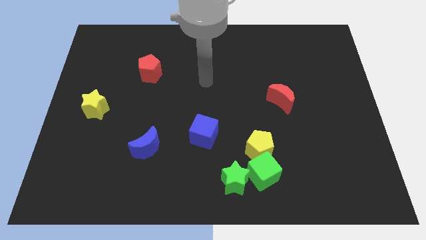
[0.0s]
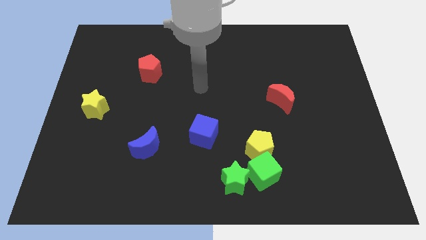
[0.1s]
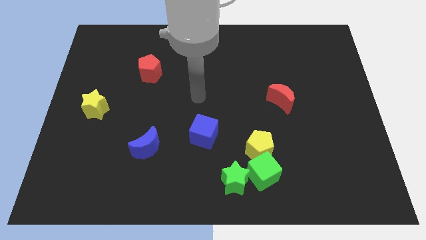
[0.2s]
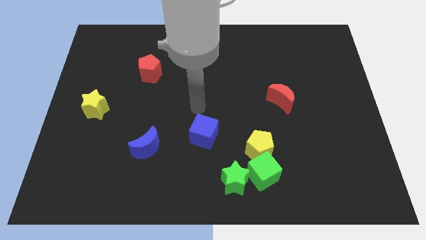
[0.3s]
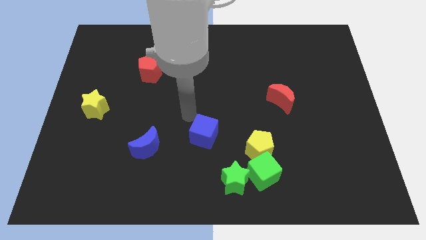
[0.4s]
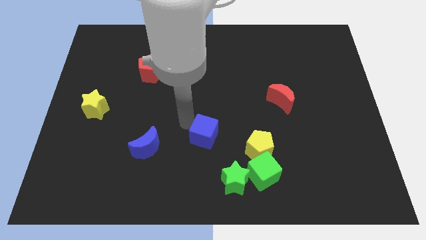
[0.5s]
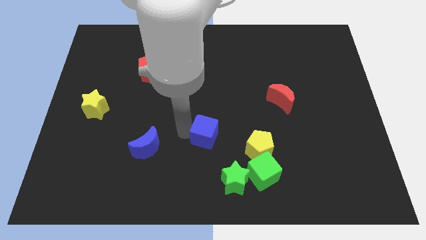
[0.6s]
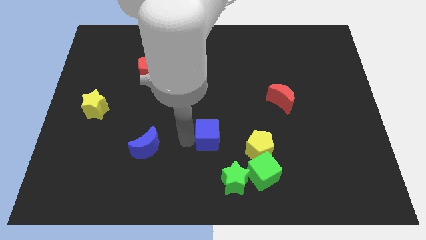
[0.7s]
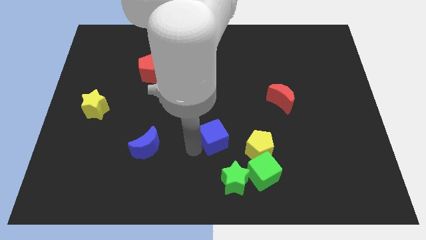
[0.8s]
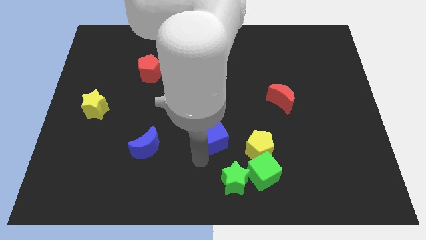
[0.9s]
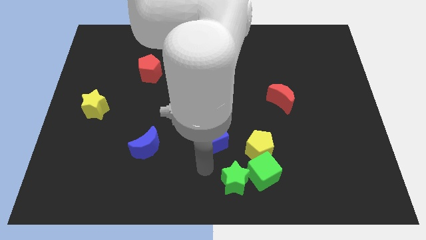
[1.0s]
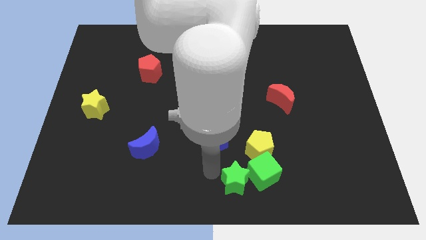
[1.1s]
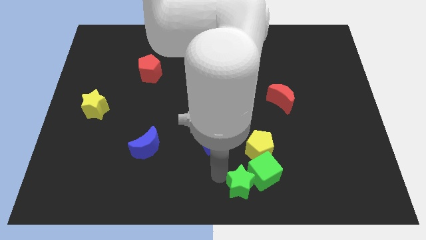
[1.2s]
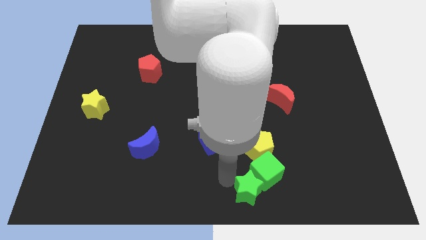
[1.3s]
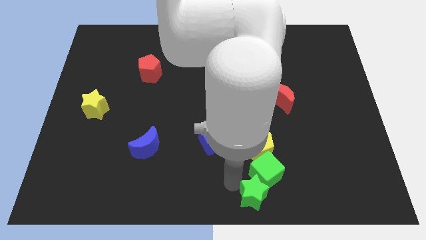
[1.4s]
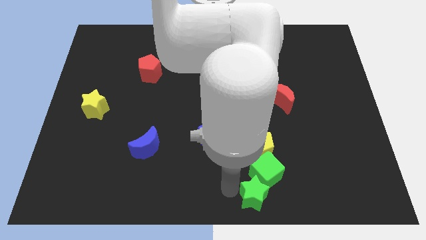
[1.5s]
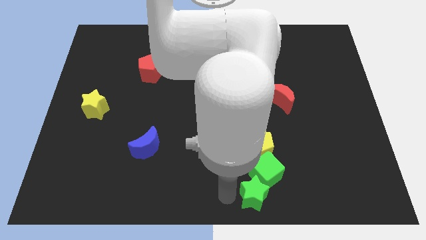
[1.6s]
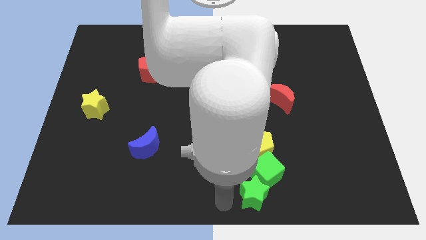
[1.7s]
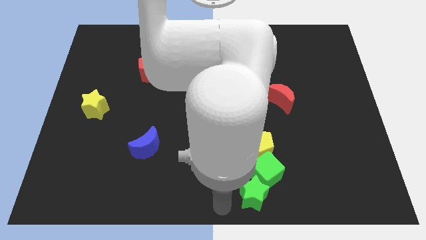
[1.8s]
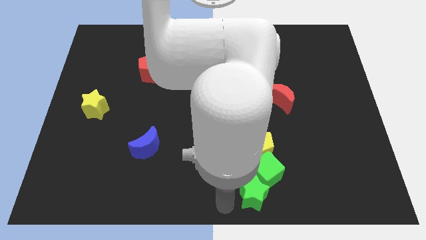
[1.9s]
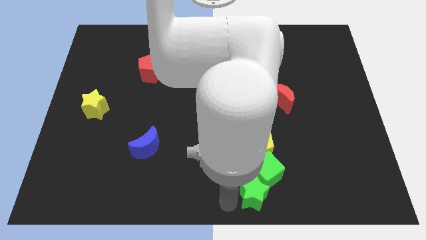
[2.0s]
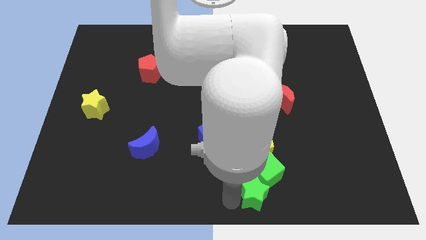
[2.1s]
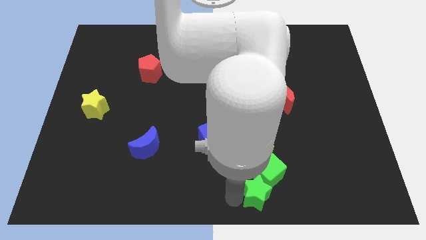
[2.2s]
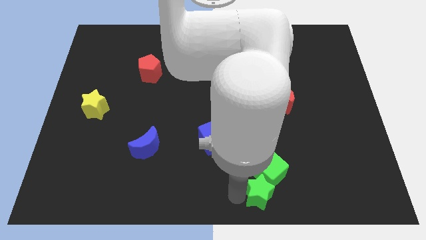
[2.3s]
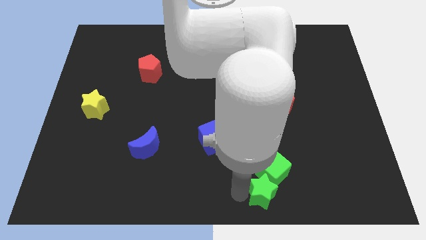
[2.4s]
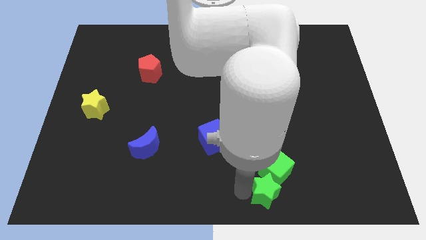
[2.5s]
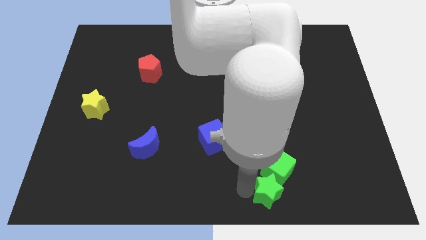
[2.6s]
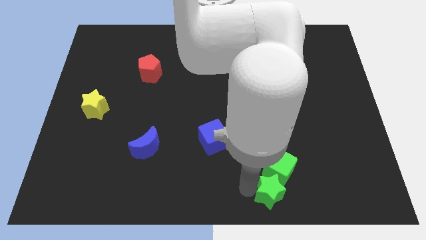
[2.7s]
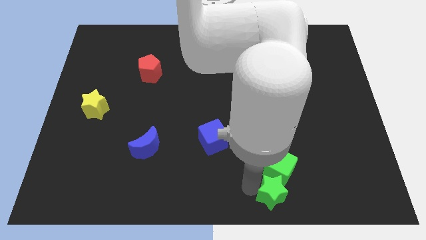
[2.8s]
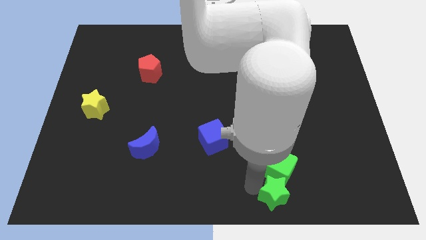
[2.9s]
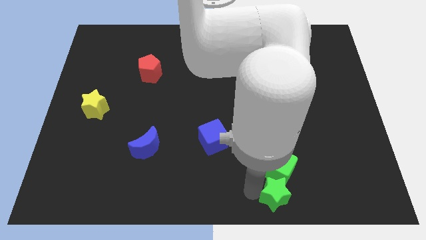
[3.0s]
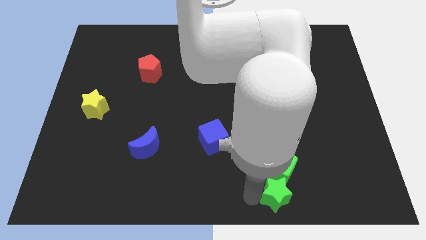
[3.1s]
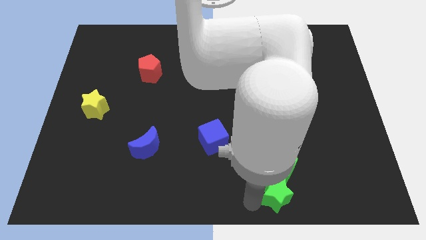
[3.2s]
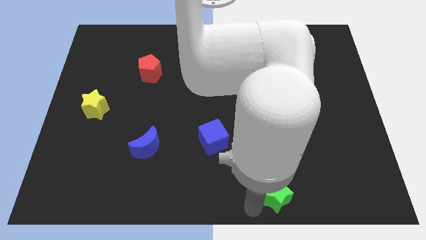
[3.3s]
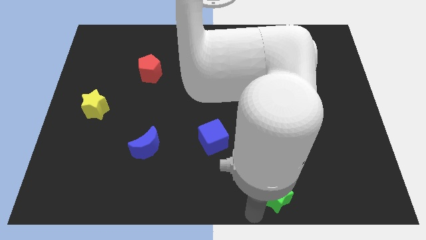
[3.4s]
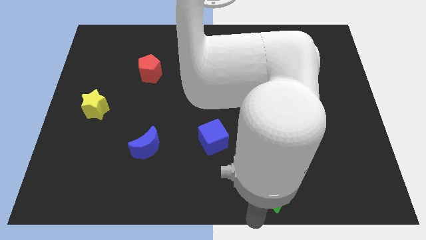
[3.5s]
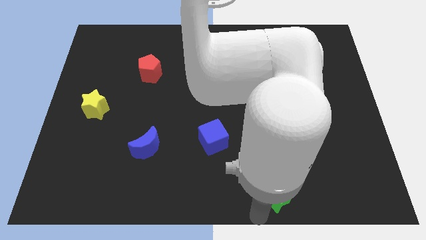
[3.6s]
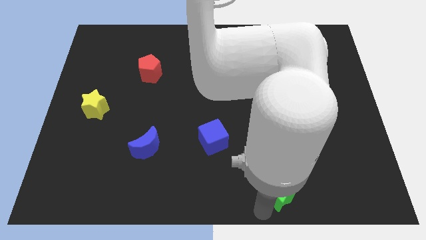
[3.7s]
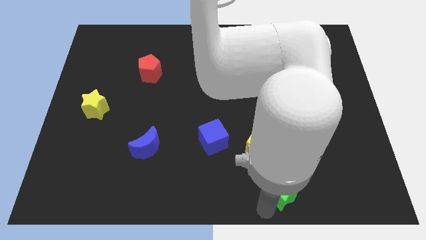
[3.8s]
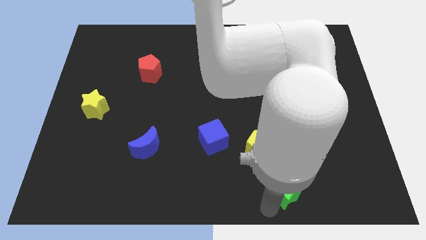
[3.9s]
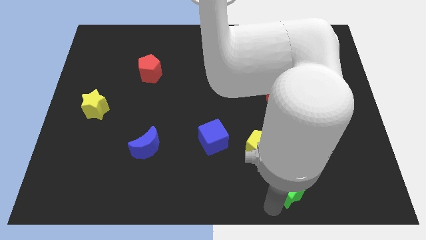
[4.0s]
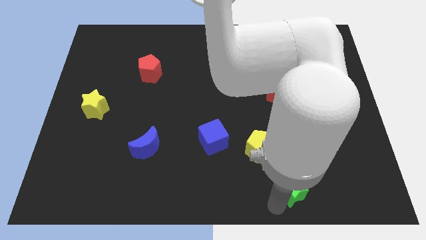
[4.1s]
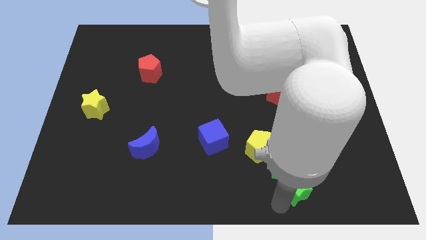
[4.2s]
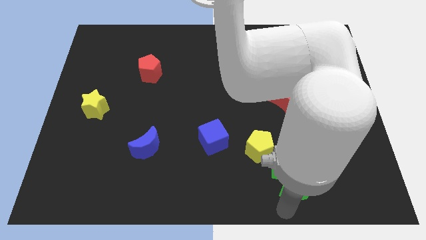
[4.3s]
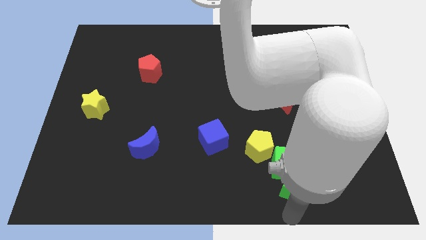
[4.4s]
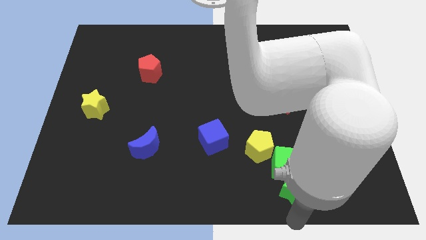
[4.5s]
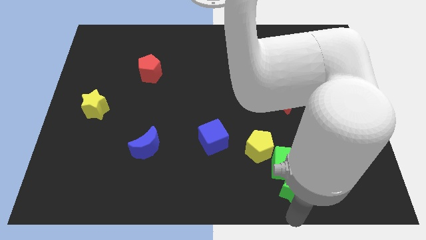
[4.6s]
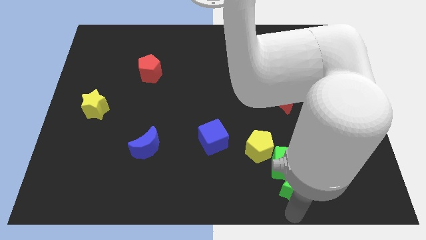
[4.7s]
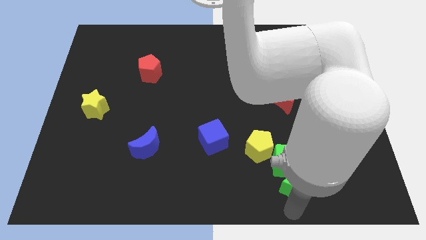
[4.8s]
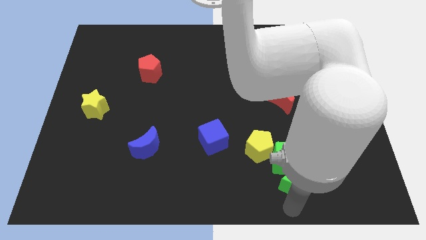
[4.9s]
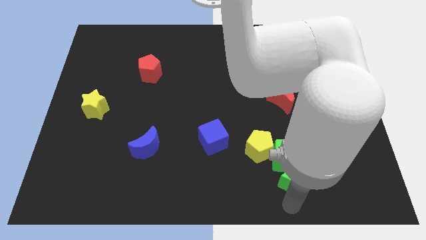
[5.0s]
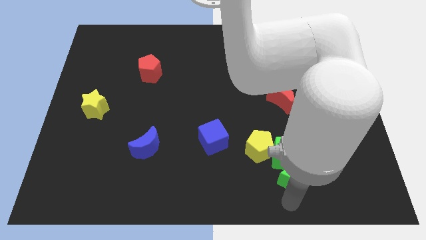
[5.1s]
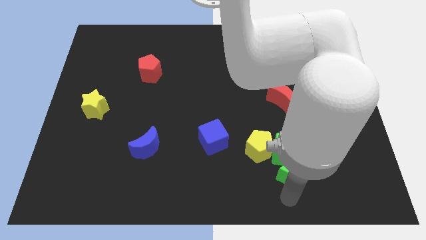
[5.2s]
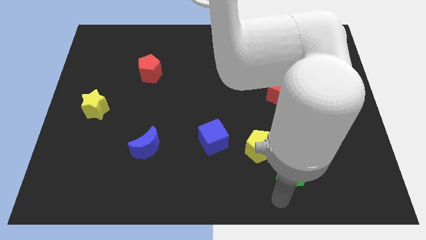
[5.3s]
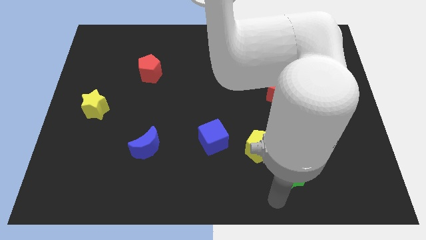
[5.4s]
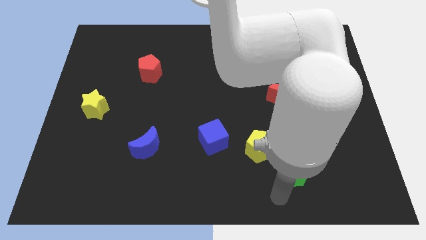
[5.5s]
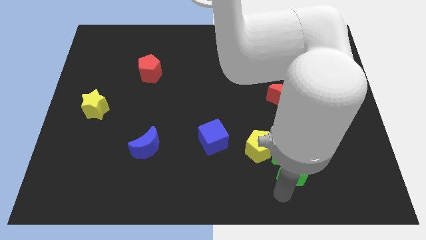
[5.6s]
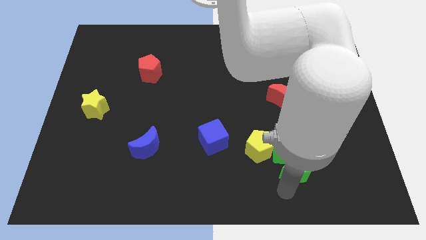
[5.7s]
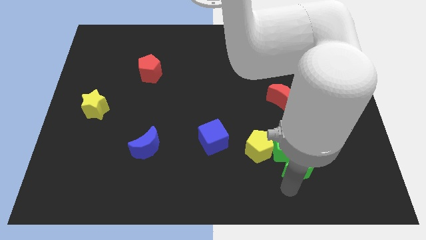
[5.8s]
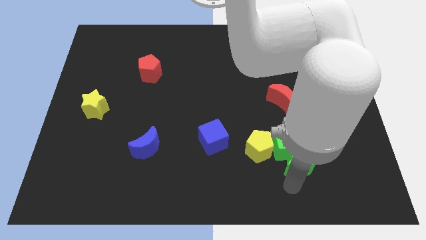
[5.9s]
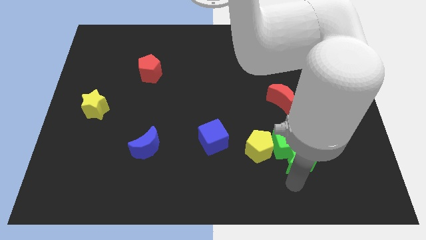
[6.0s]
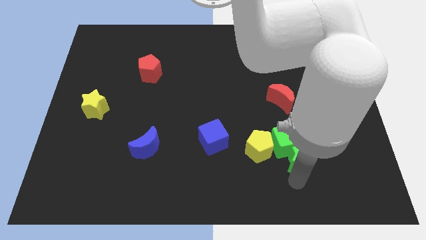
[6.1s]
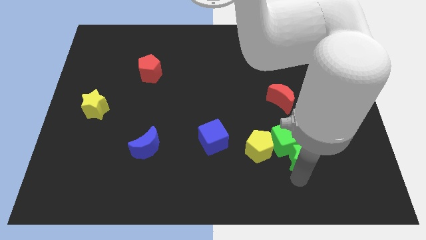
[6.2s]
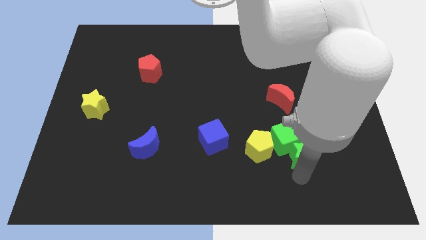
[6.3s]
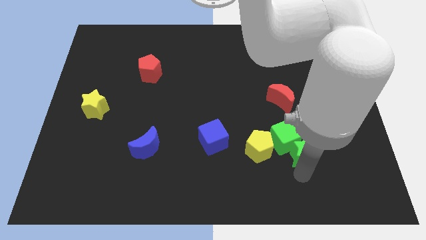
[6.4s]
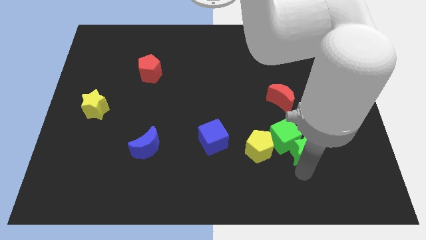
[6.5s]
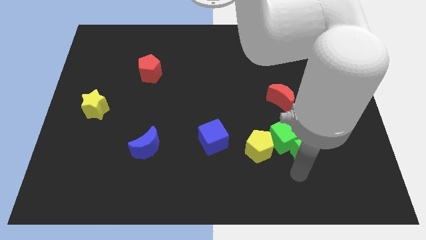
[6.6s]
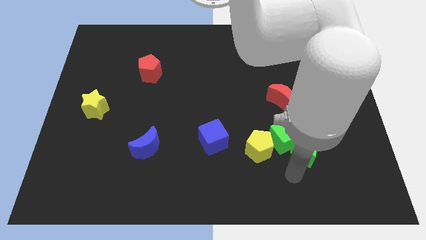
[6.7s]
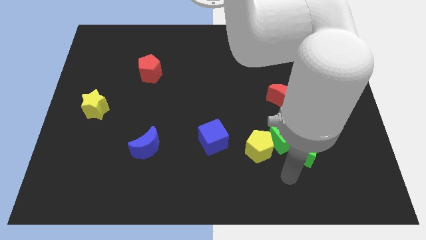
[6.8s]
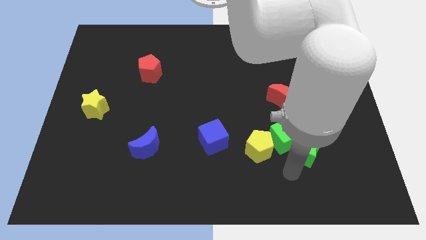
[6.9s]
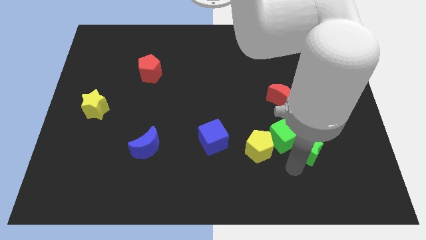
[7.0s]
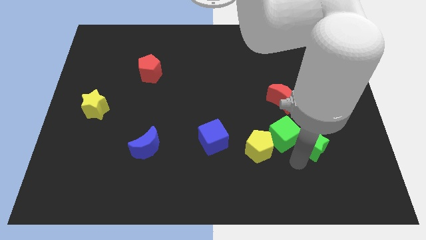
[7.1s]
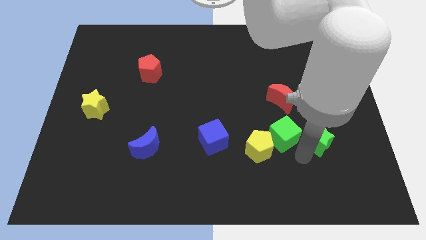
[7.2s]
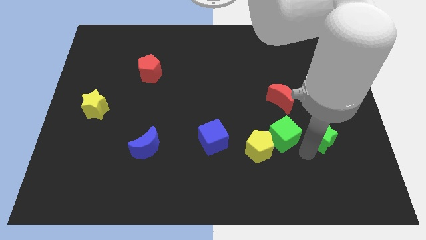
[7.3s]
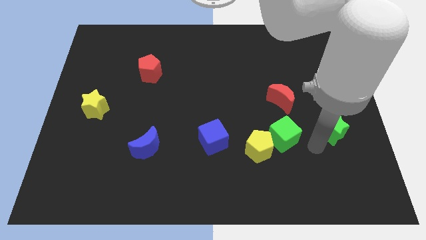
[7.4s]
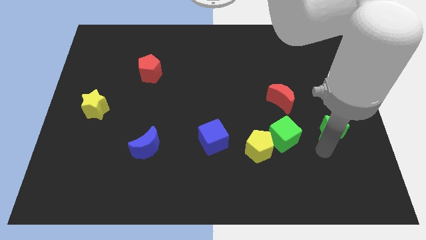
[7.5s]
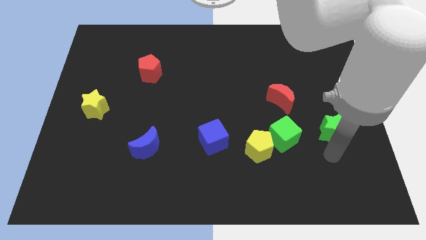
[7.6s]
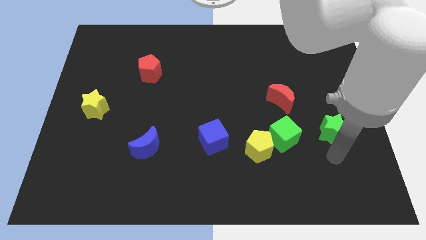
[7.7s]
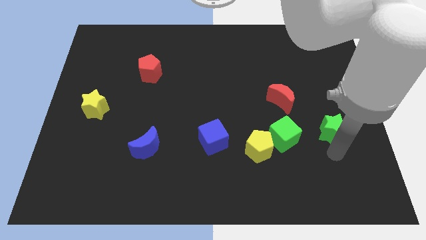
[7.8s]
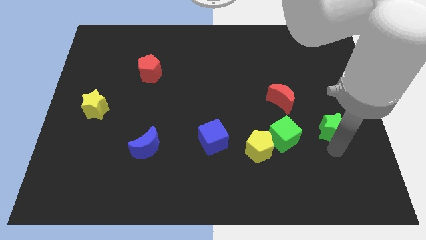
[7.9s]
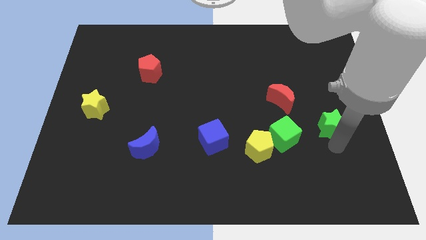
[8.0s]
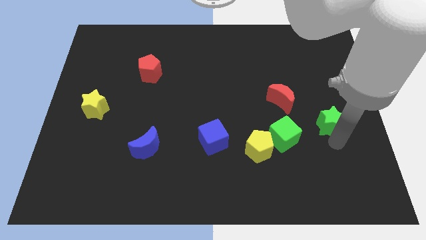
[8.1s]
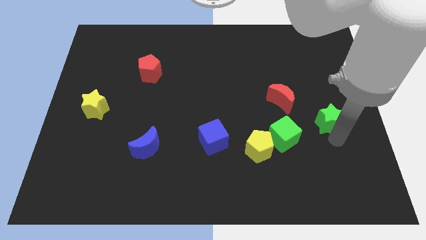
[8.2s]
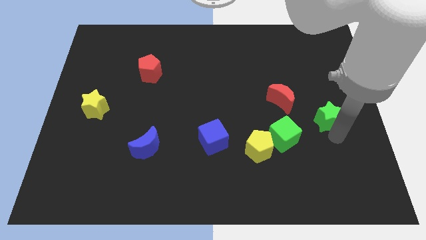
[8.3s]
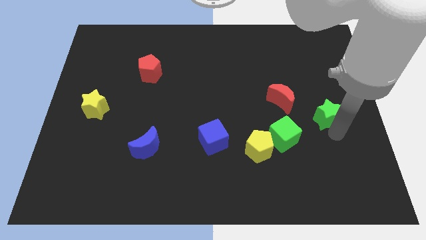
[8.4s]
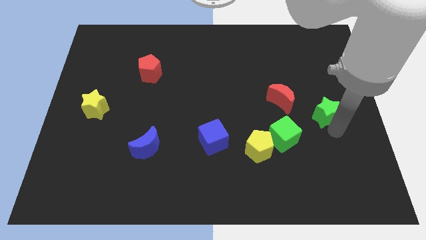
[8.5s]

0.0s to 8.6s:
slide the green star to the right of the red moon
